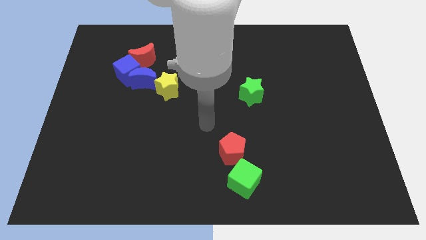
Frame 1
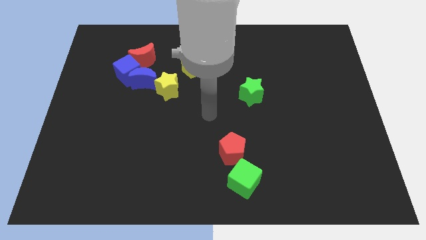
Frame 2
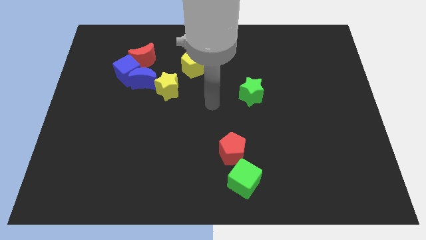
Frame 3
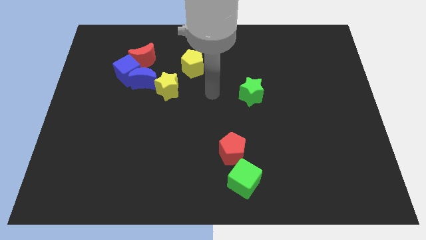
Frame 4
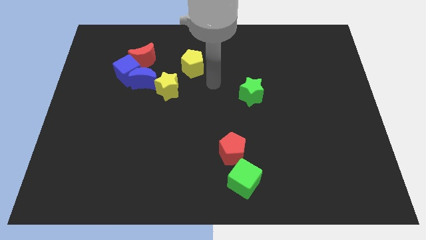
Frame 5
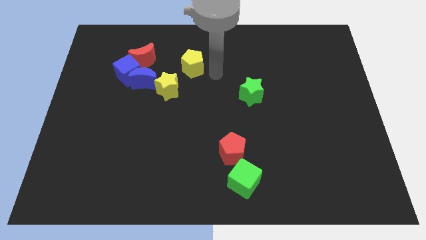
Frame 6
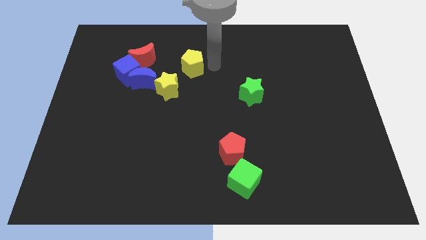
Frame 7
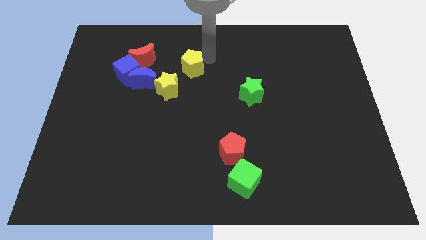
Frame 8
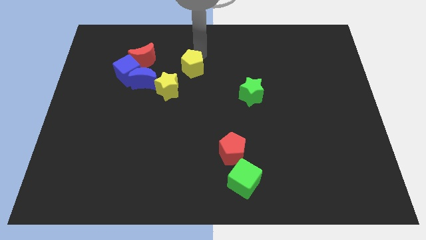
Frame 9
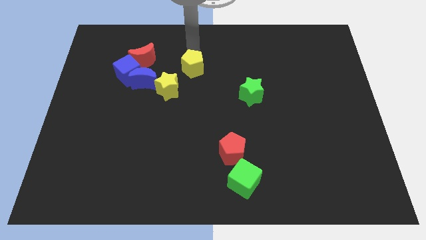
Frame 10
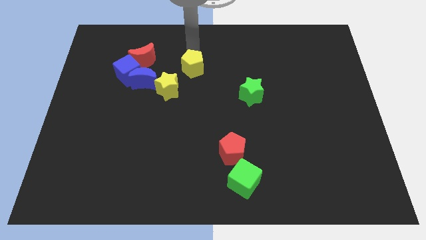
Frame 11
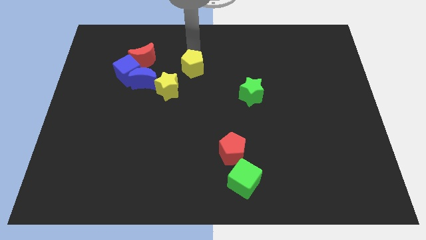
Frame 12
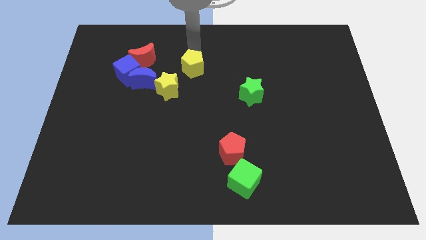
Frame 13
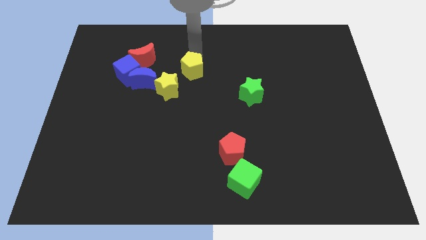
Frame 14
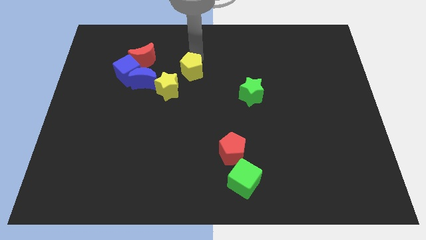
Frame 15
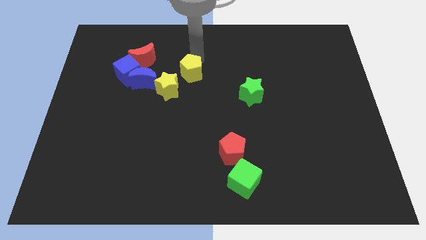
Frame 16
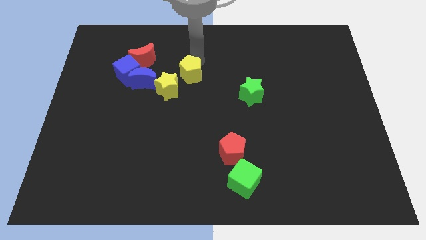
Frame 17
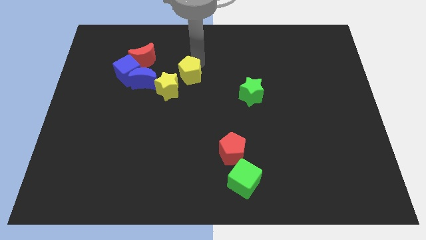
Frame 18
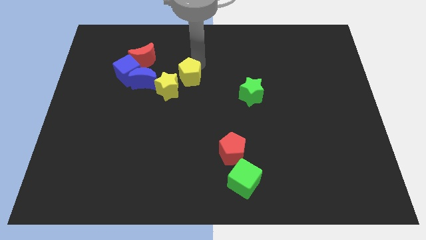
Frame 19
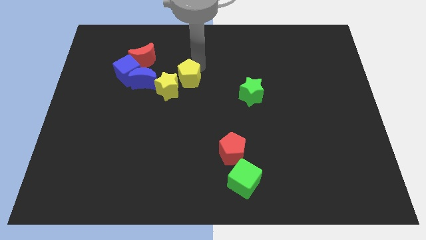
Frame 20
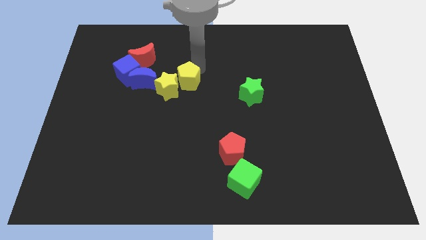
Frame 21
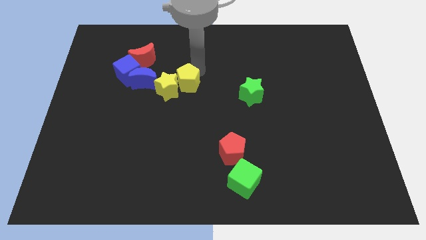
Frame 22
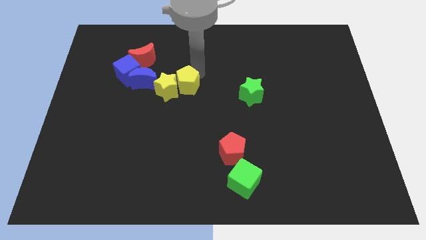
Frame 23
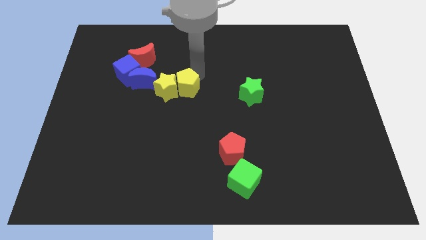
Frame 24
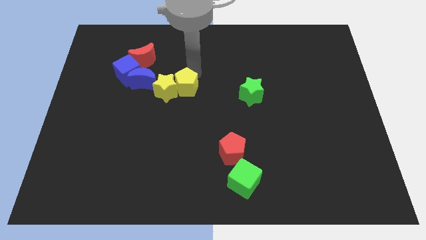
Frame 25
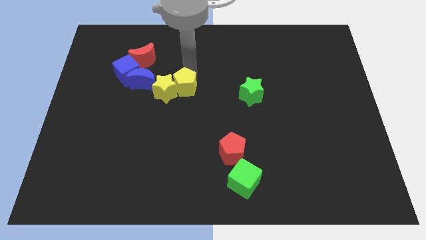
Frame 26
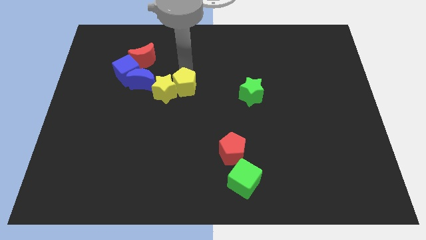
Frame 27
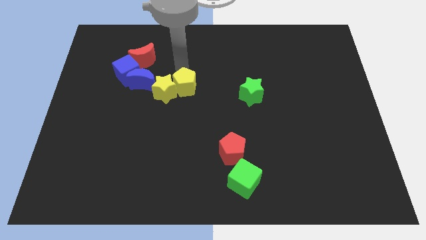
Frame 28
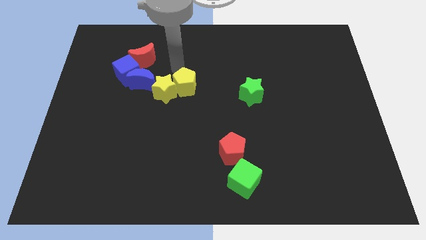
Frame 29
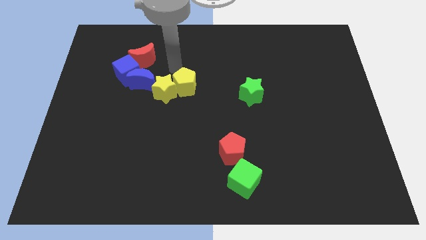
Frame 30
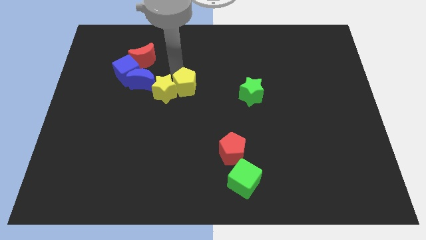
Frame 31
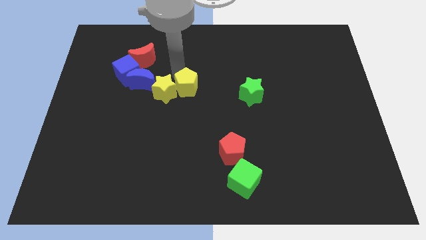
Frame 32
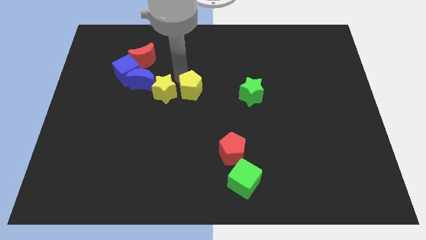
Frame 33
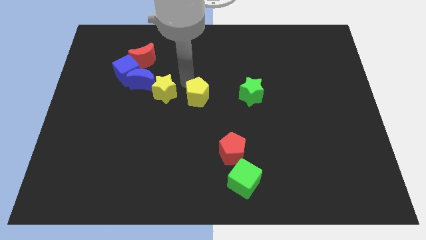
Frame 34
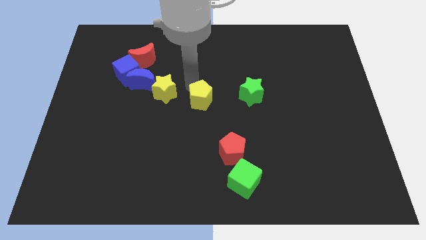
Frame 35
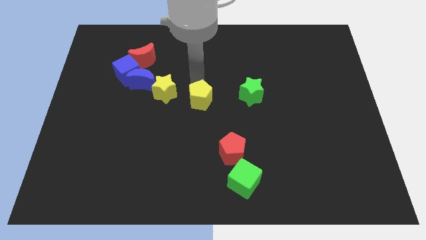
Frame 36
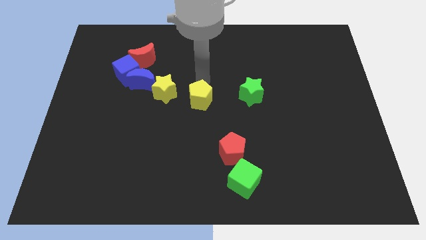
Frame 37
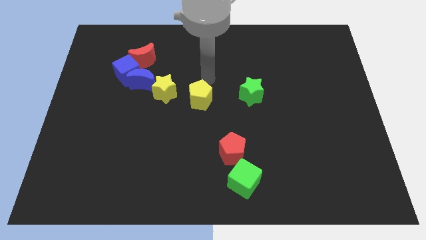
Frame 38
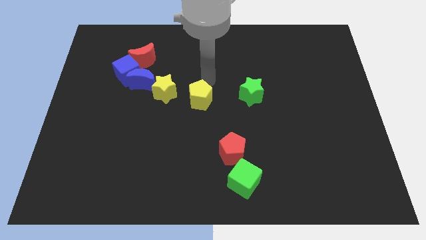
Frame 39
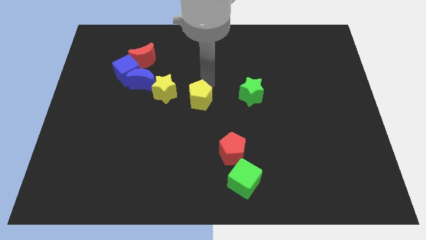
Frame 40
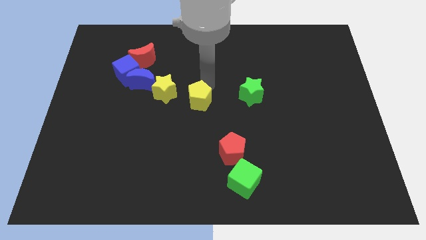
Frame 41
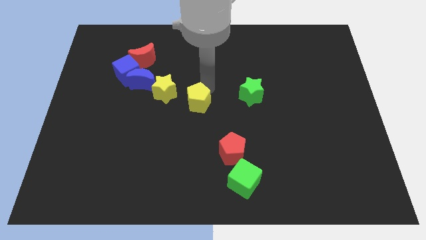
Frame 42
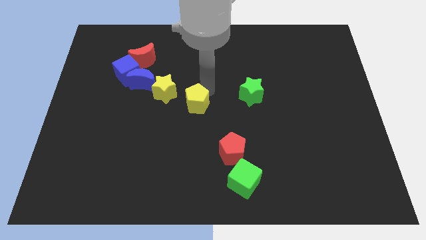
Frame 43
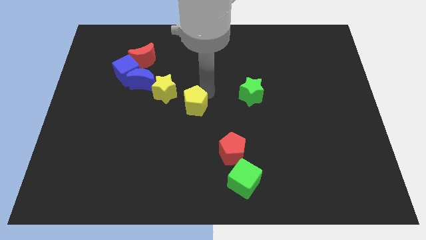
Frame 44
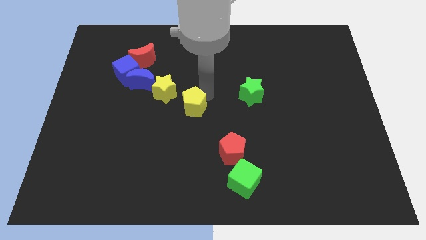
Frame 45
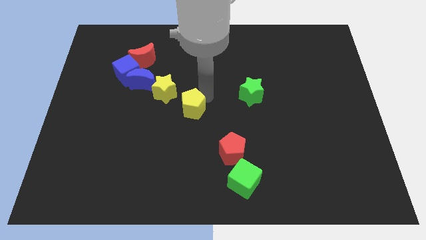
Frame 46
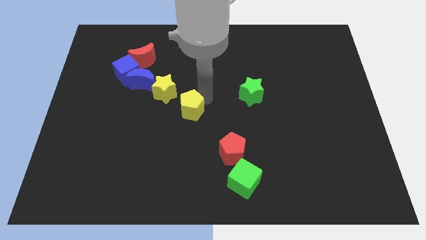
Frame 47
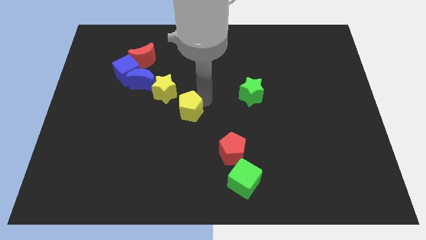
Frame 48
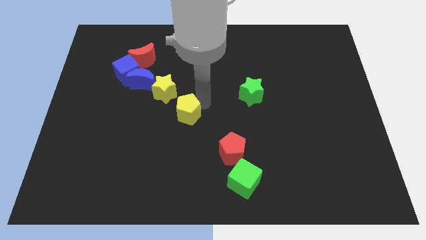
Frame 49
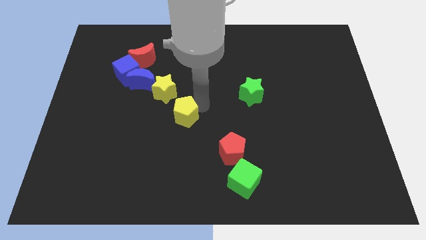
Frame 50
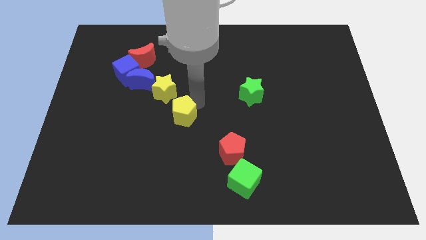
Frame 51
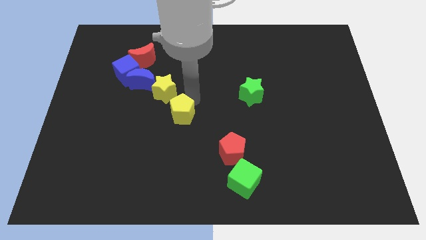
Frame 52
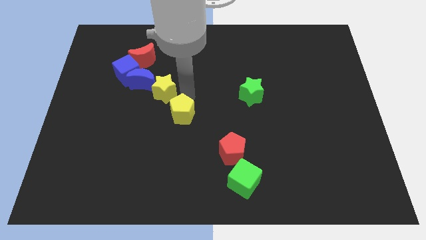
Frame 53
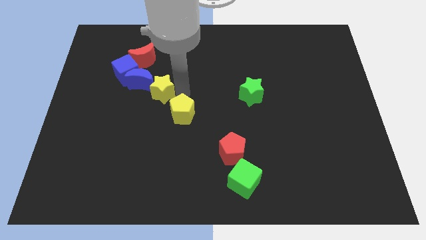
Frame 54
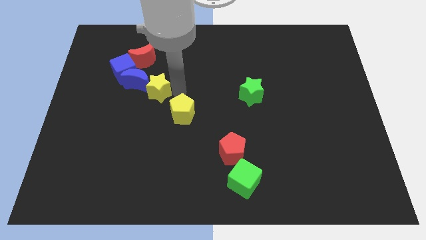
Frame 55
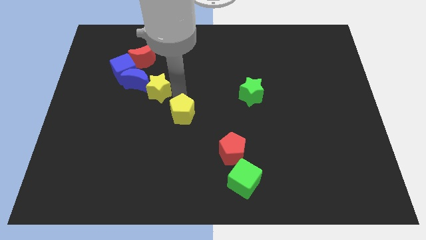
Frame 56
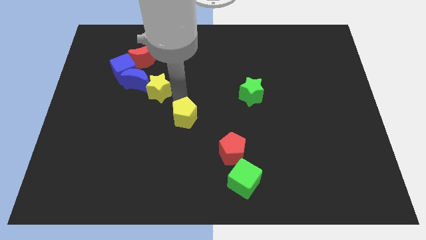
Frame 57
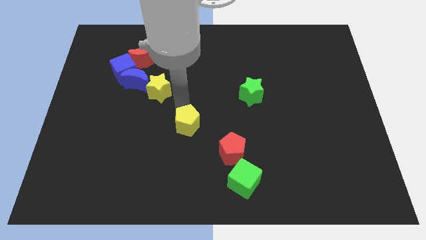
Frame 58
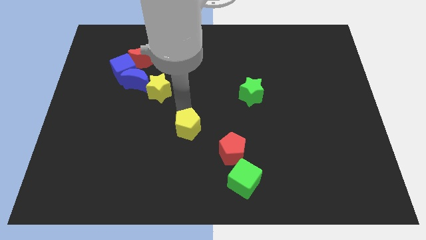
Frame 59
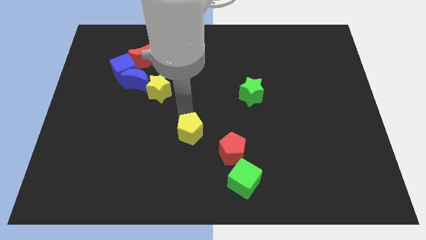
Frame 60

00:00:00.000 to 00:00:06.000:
slide the yellow pentagon downwards

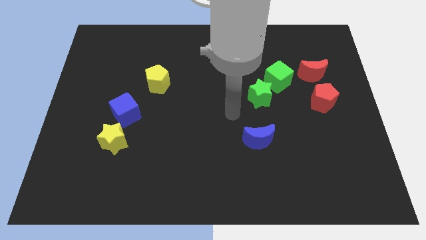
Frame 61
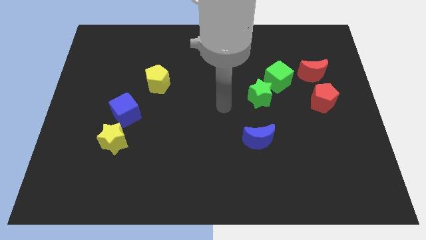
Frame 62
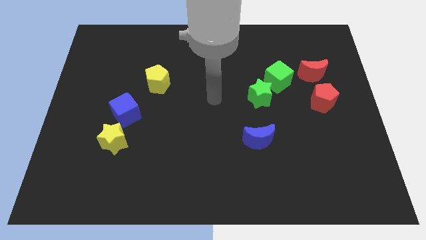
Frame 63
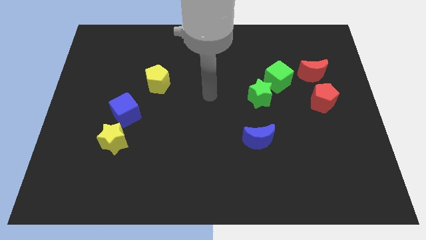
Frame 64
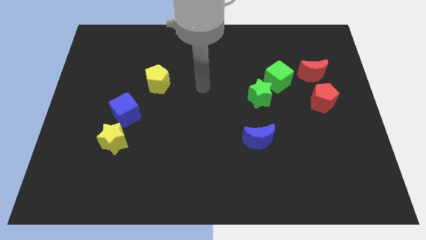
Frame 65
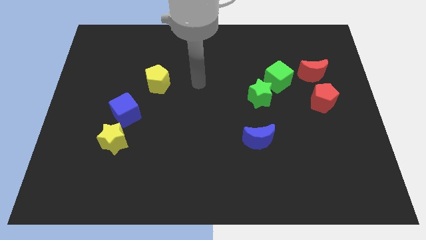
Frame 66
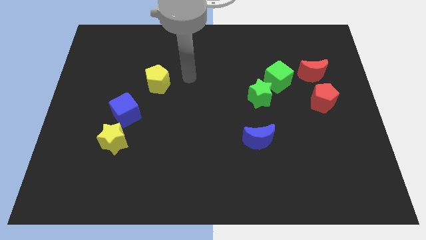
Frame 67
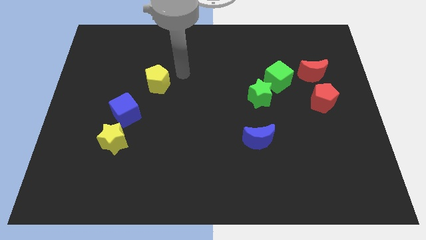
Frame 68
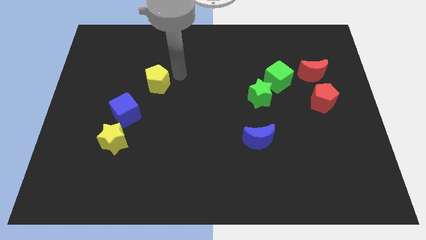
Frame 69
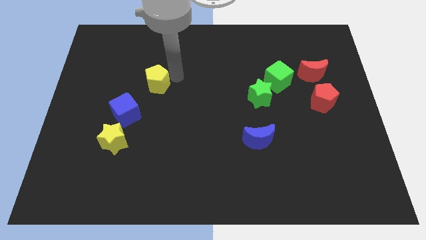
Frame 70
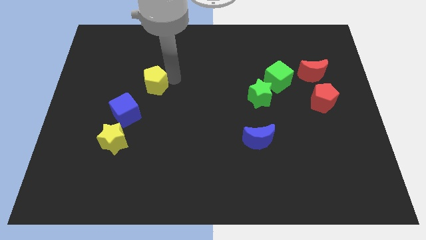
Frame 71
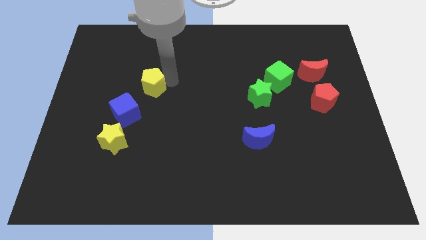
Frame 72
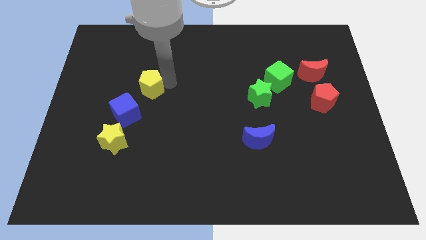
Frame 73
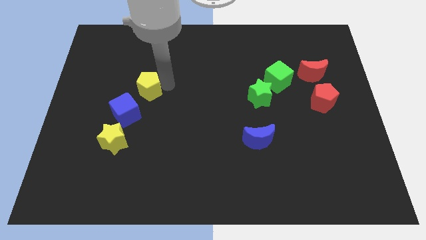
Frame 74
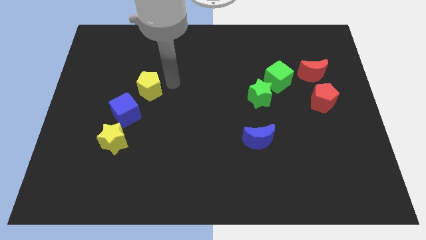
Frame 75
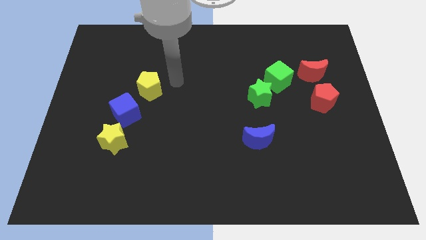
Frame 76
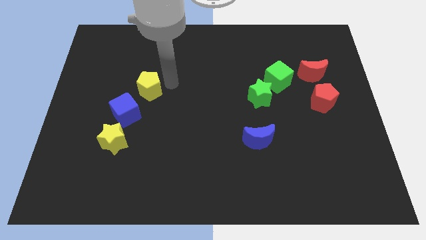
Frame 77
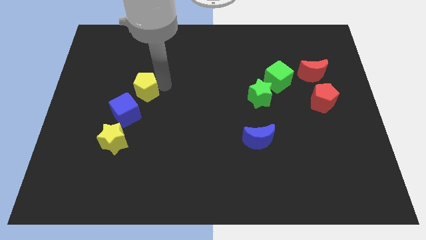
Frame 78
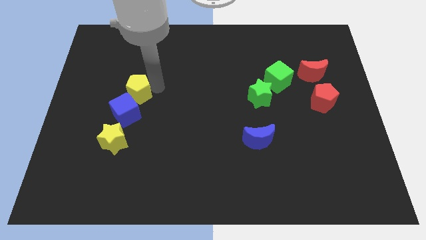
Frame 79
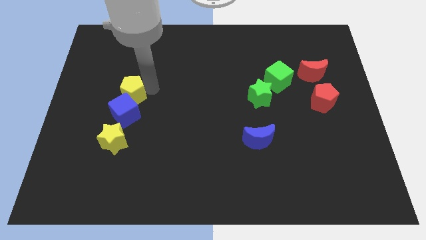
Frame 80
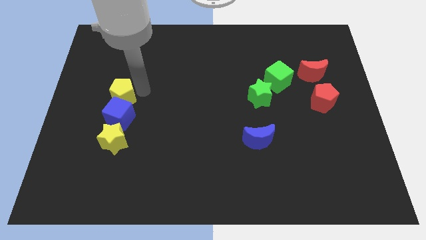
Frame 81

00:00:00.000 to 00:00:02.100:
slightly slide the yellow pentagon downwards and left
